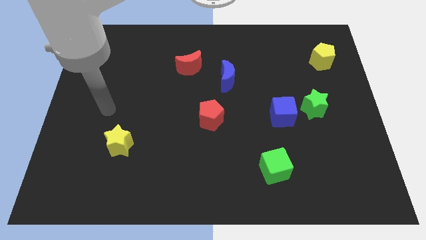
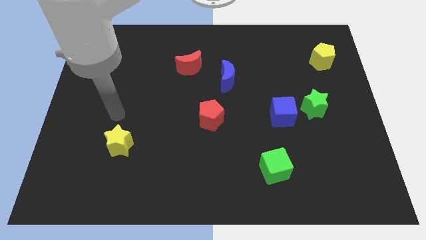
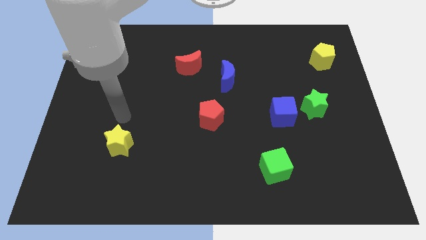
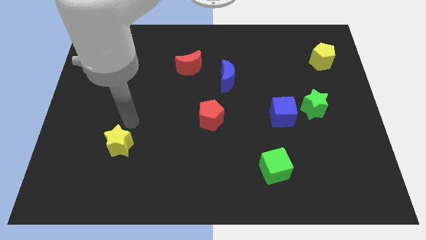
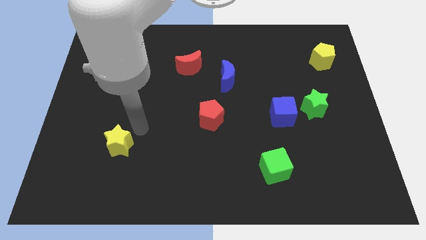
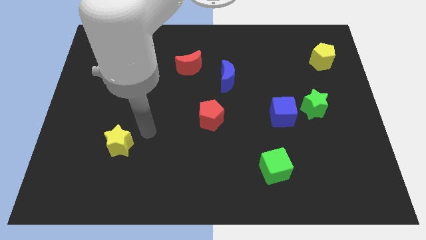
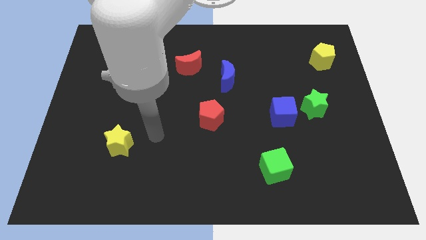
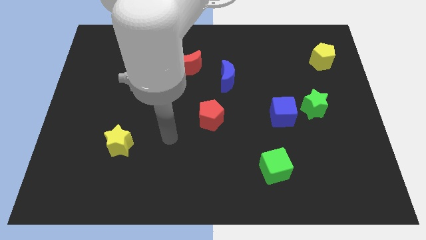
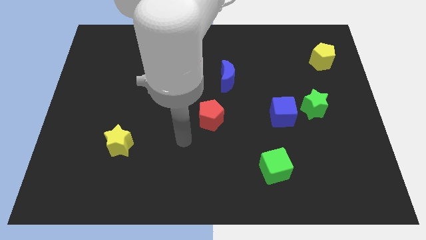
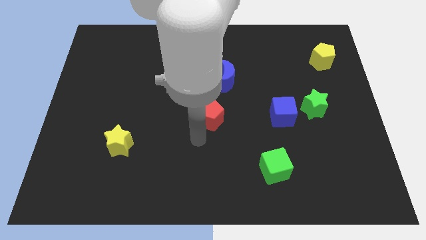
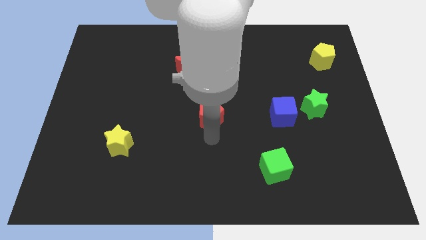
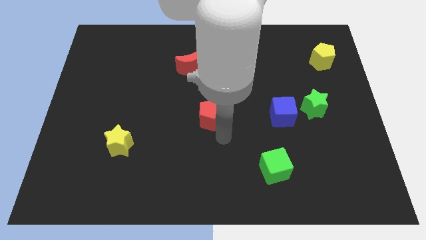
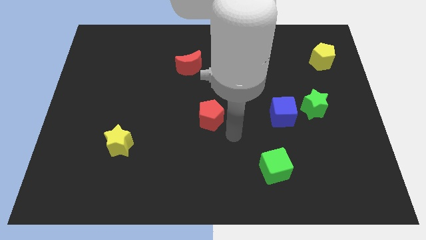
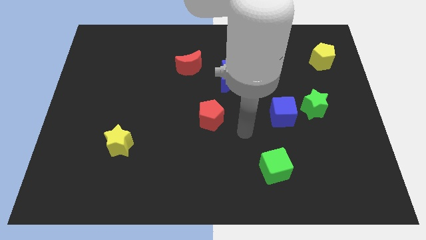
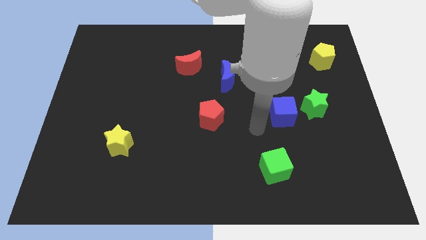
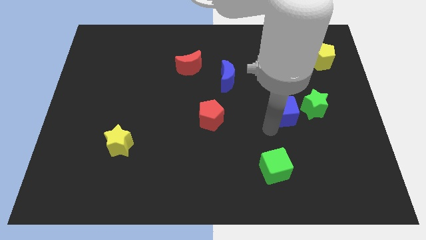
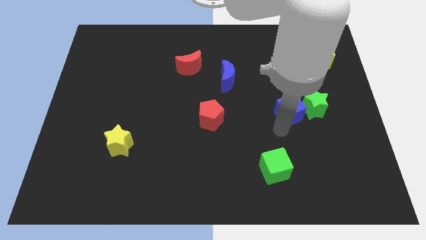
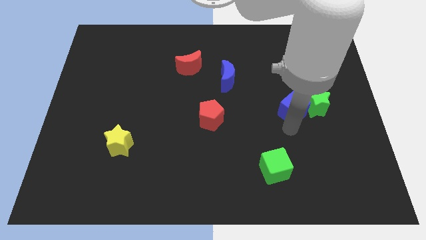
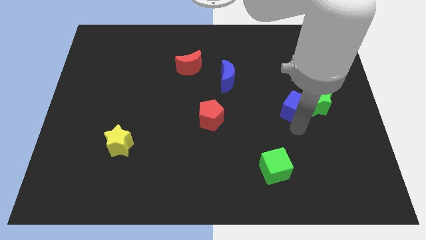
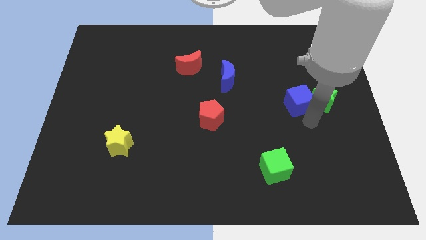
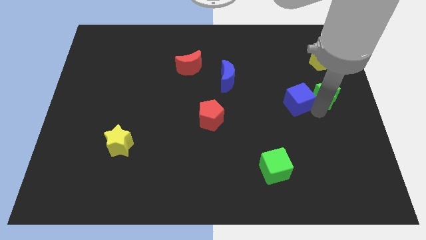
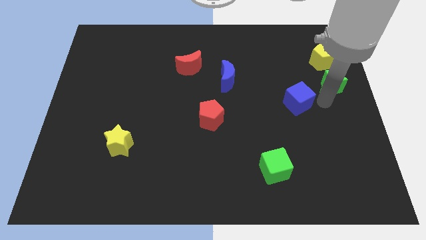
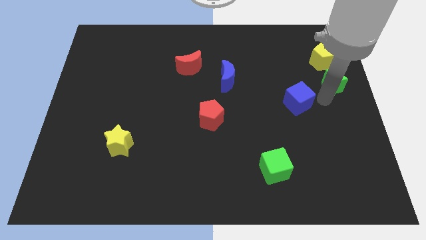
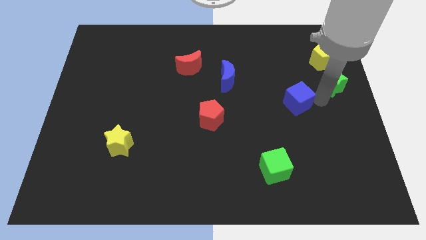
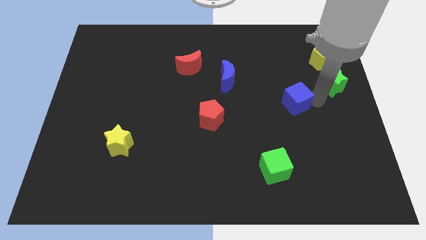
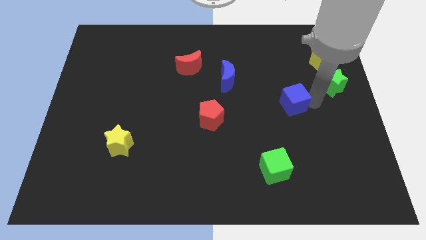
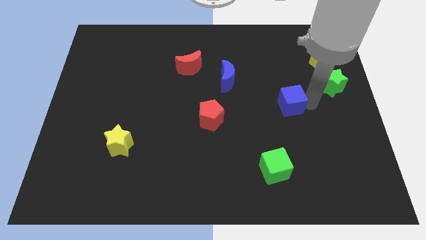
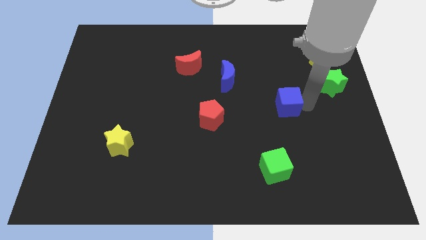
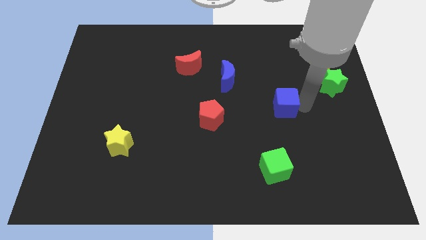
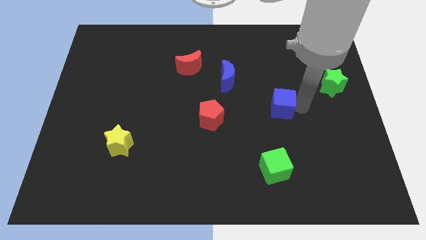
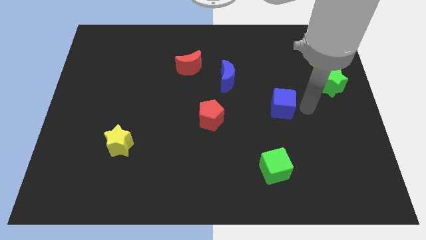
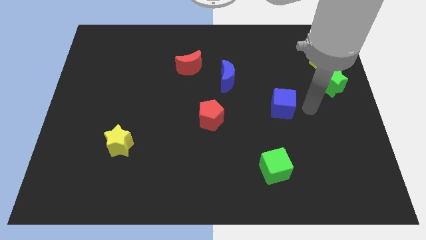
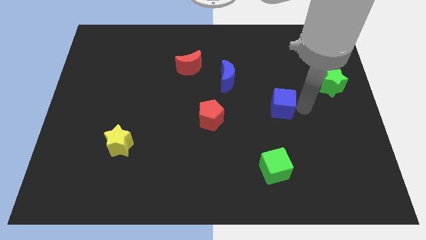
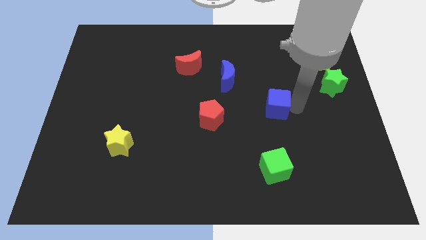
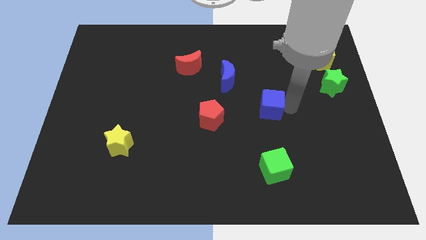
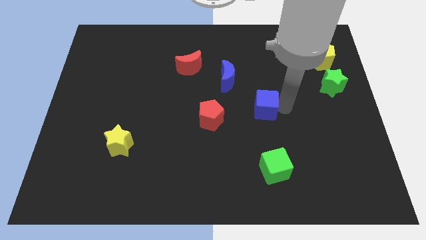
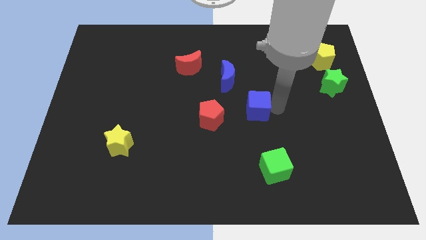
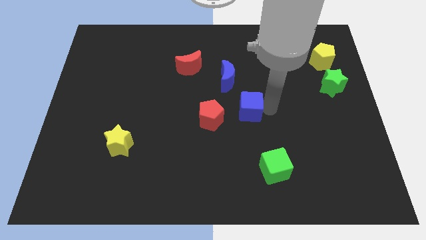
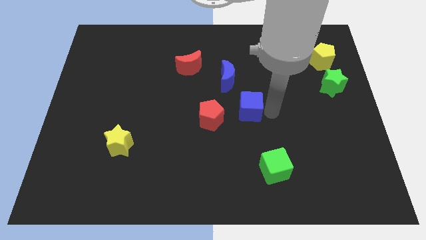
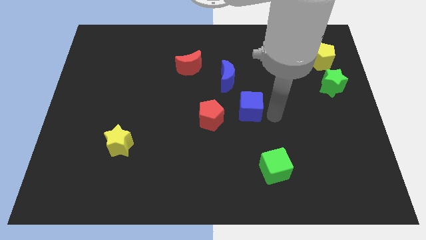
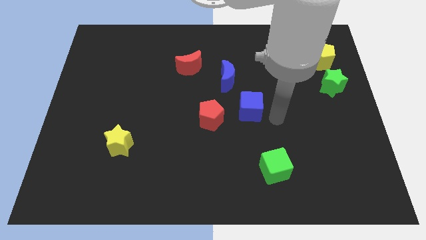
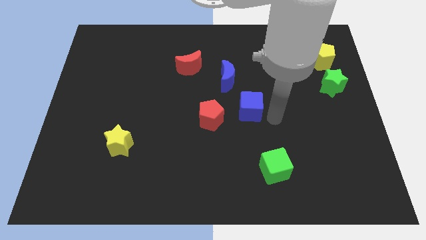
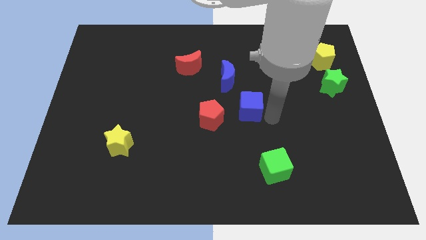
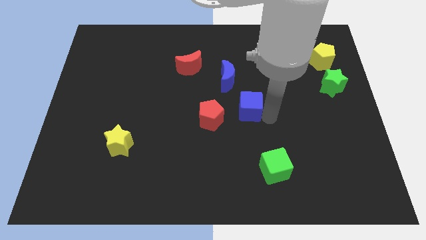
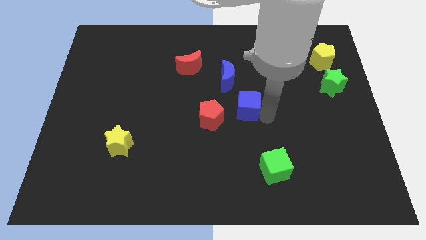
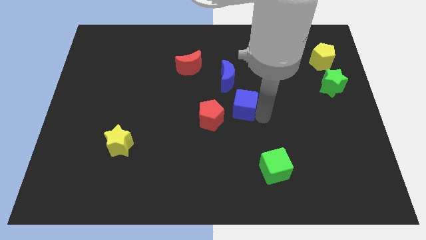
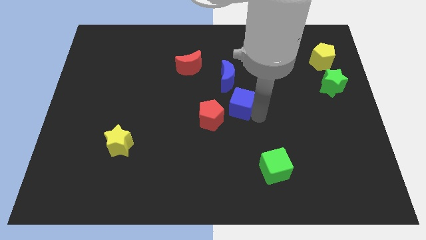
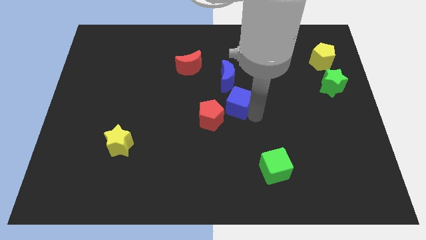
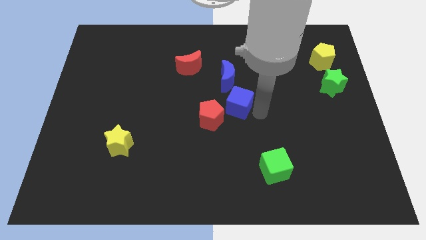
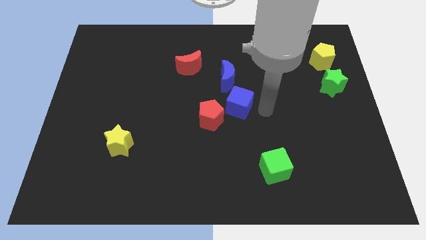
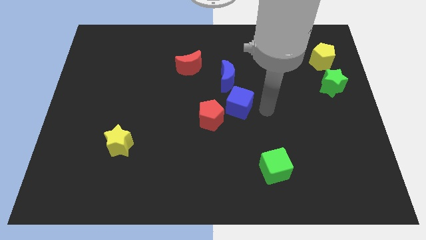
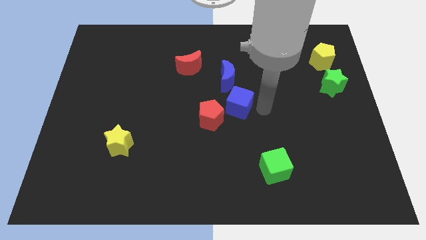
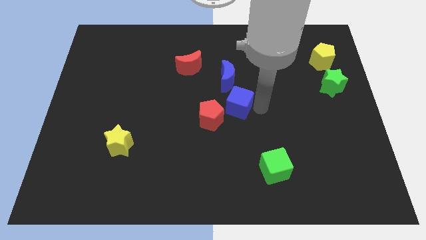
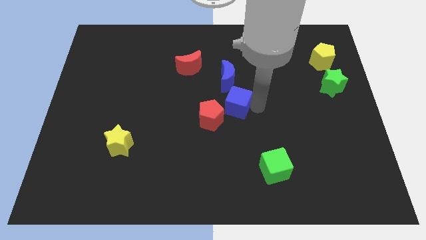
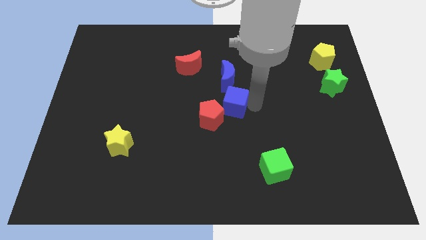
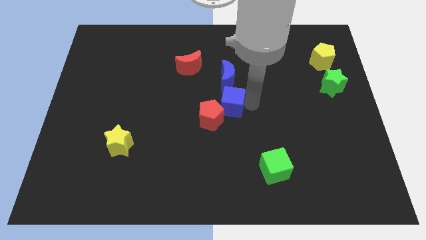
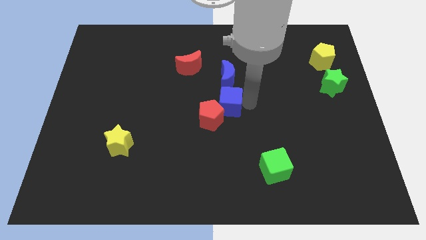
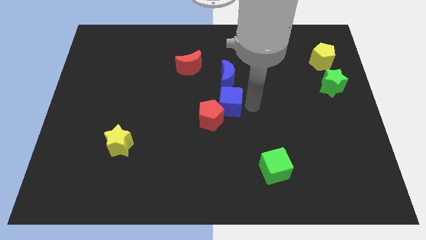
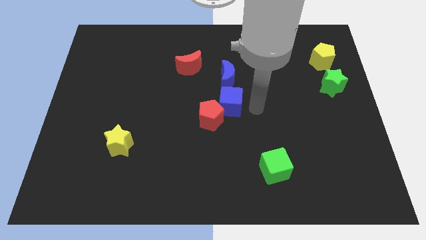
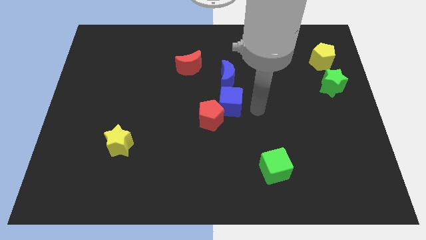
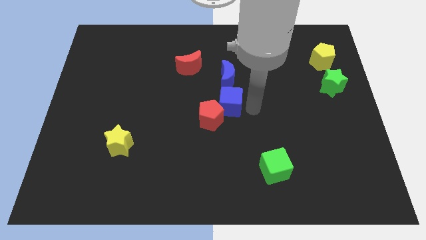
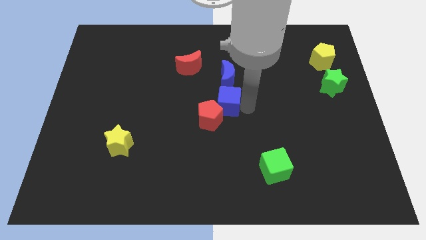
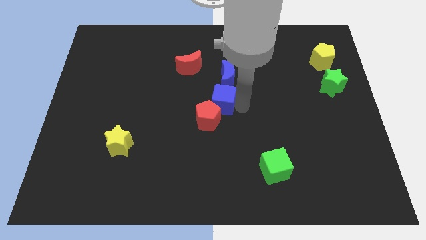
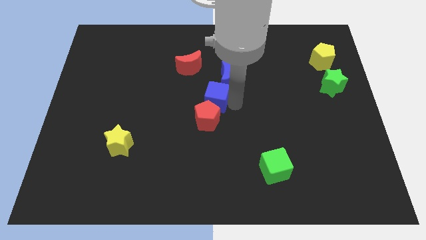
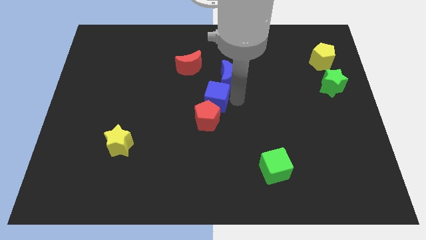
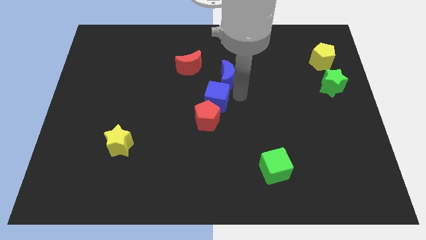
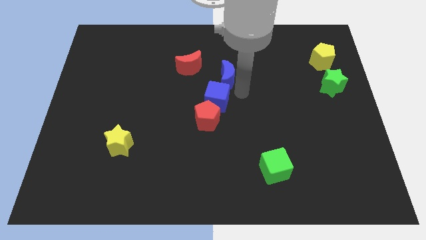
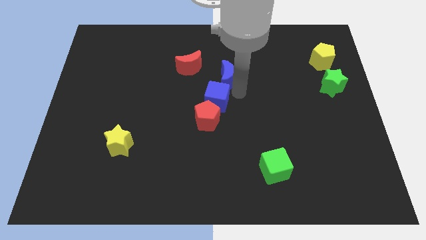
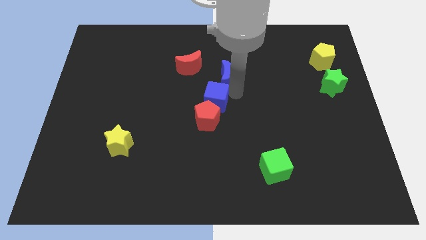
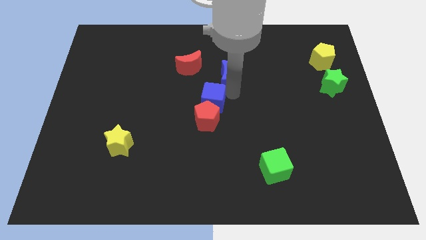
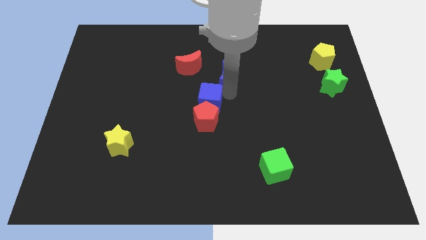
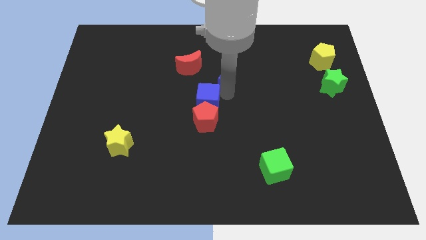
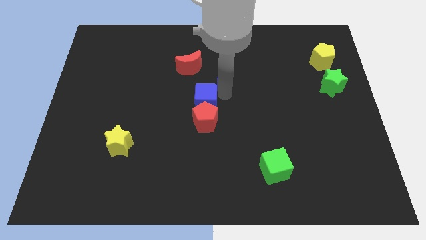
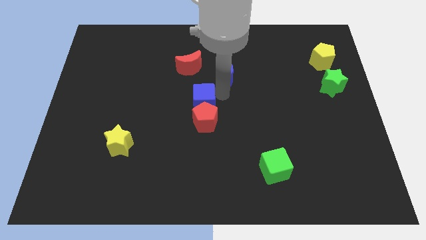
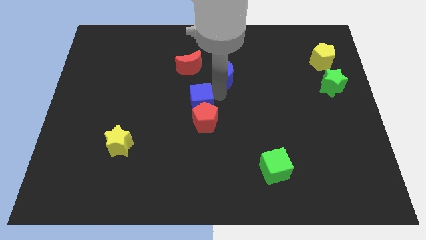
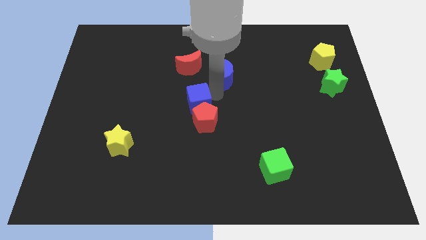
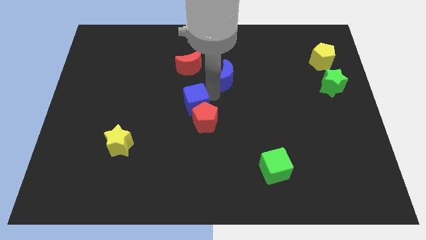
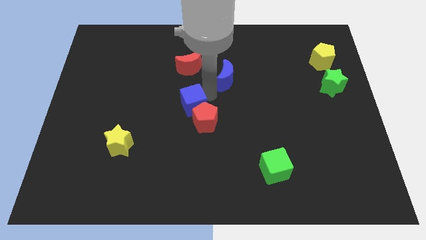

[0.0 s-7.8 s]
slide the blue cube to the left

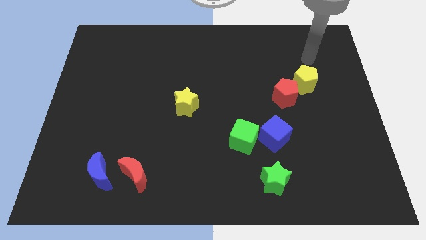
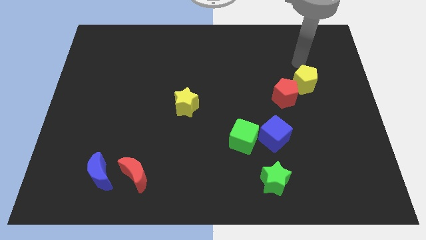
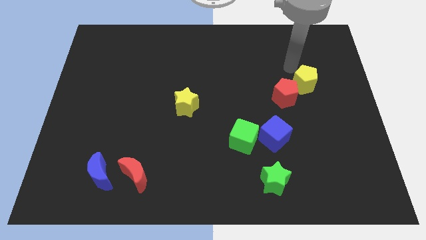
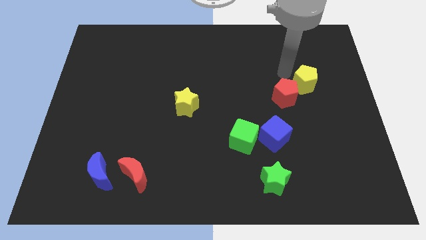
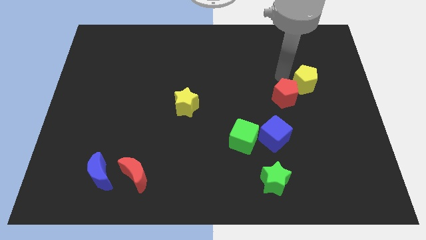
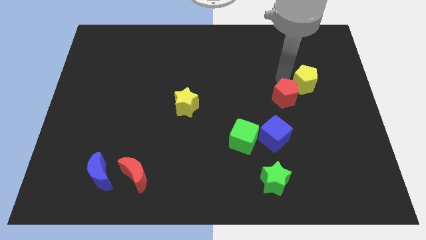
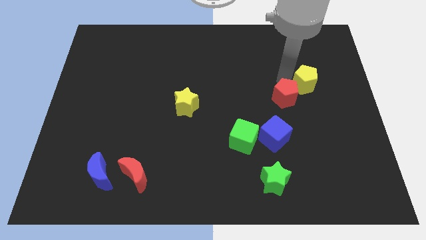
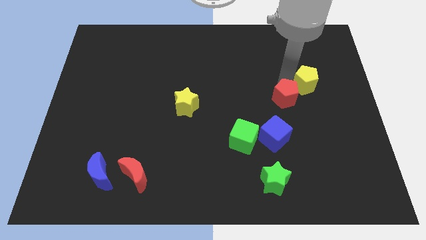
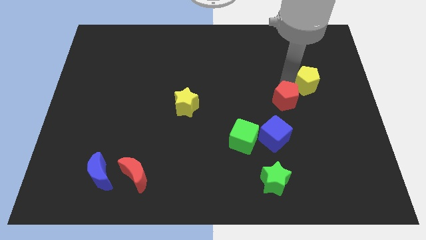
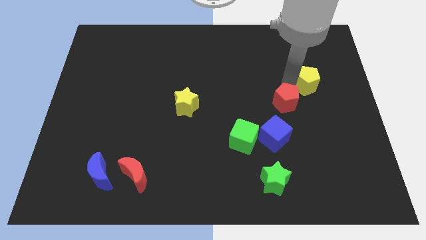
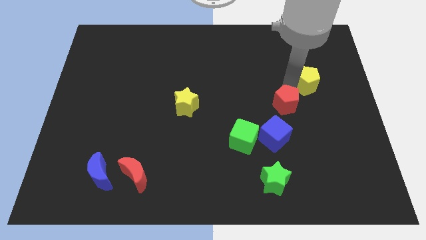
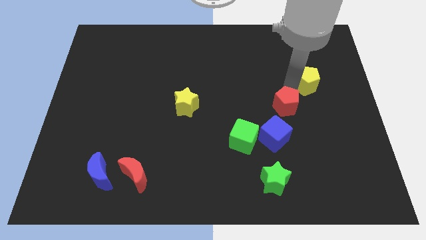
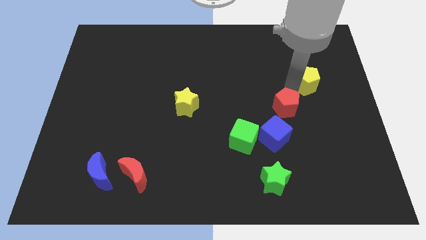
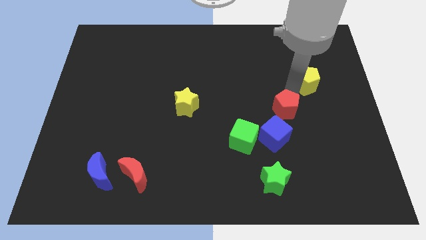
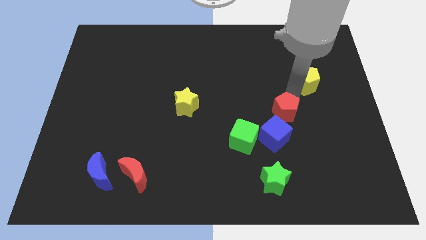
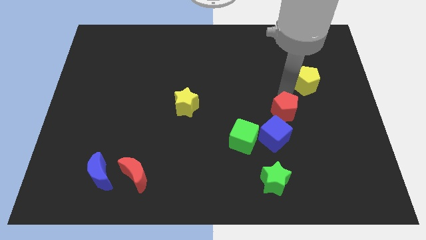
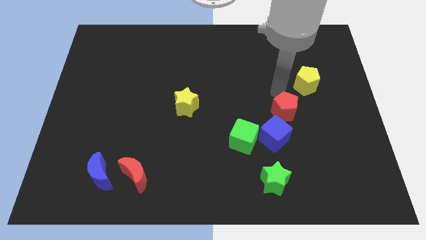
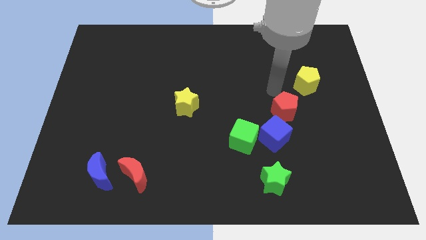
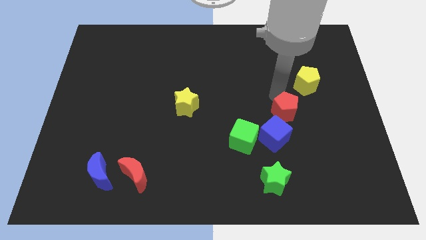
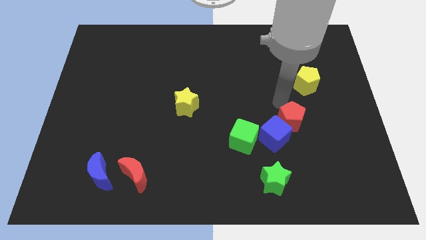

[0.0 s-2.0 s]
move the red pentagon a bit downwards
